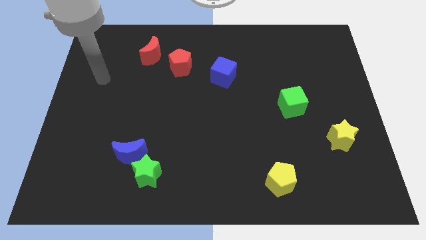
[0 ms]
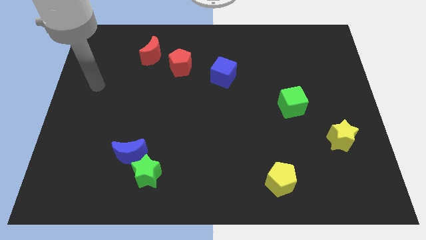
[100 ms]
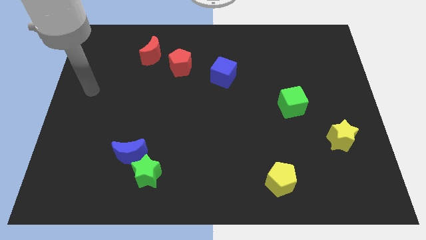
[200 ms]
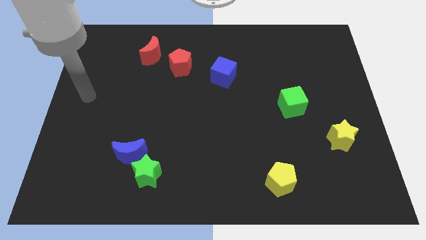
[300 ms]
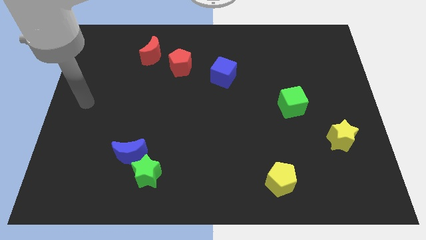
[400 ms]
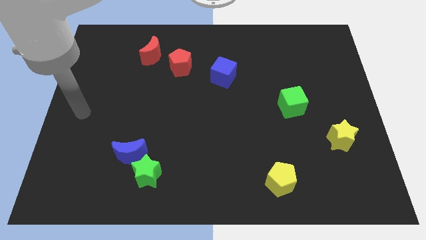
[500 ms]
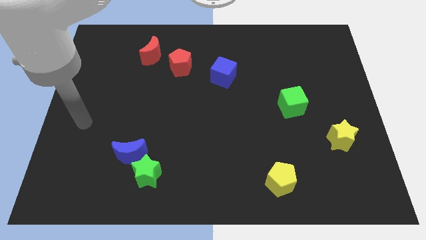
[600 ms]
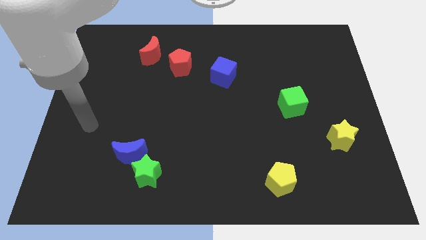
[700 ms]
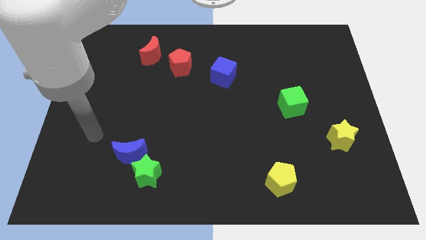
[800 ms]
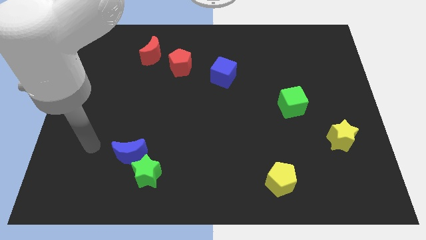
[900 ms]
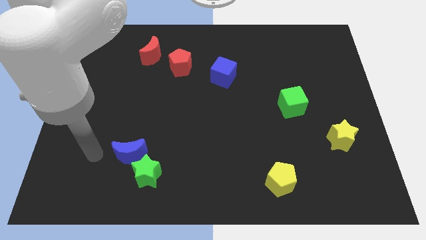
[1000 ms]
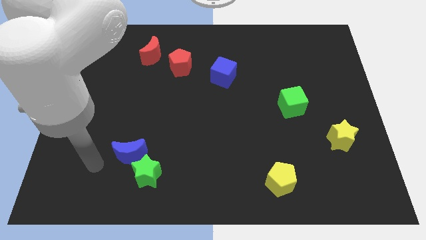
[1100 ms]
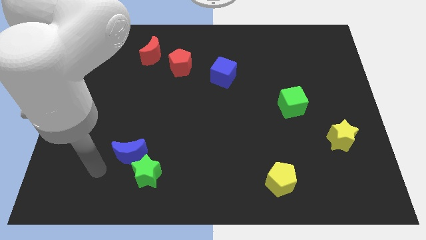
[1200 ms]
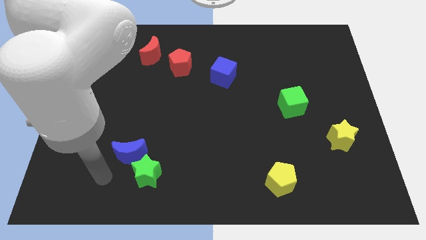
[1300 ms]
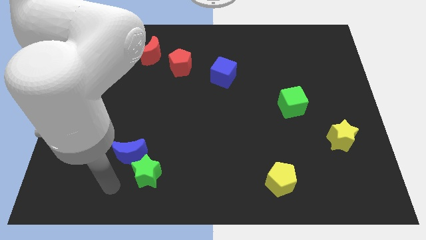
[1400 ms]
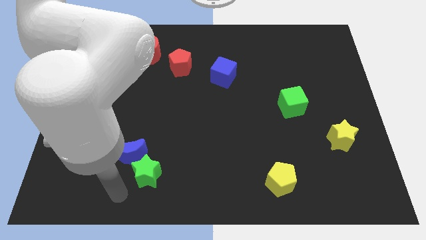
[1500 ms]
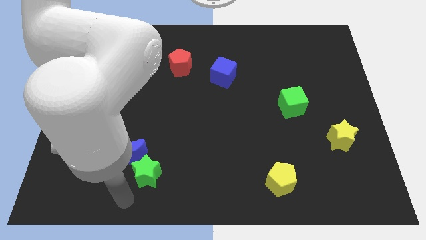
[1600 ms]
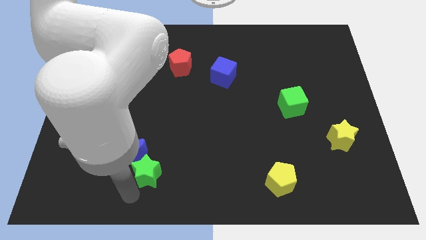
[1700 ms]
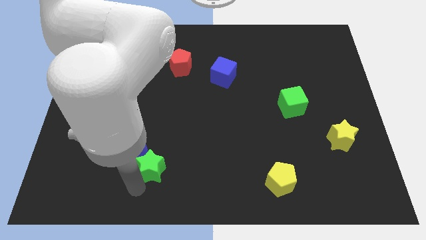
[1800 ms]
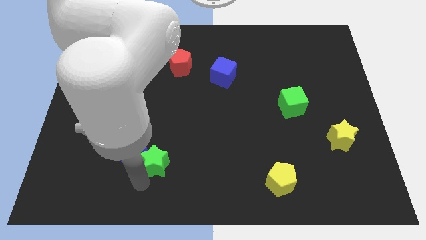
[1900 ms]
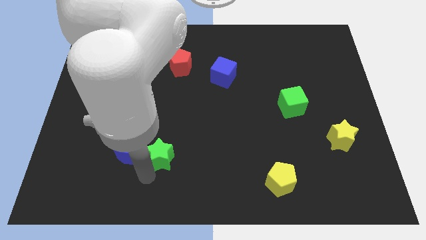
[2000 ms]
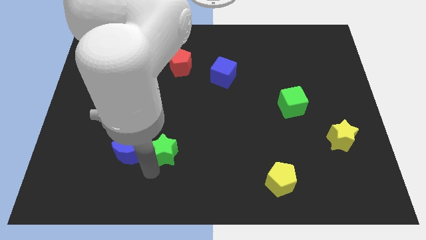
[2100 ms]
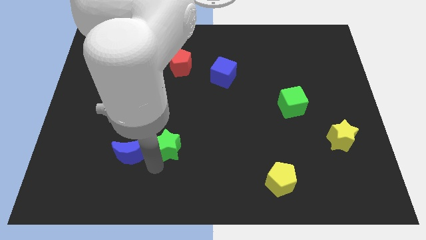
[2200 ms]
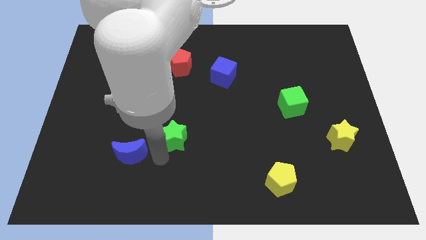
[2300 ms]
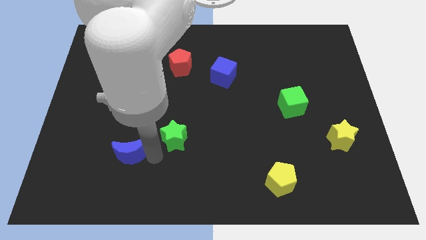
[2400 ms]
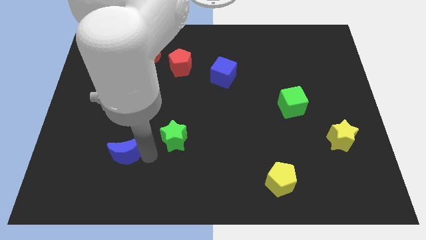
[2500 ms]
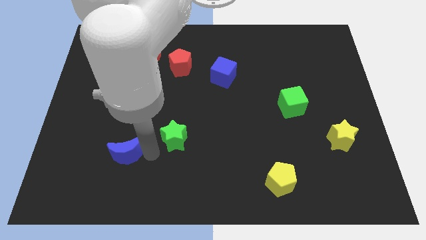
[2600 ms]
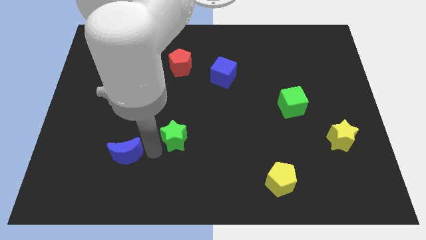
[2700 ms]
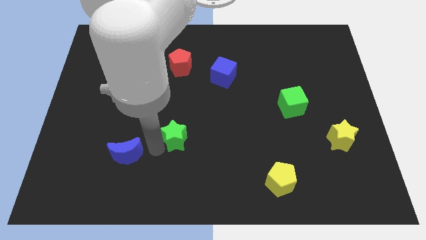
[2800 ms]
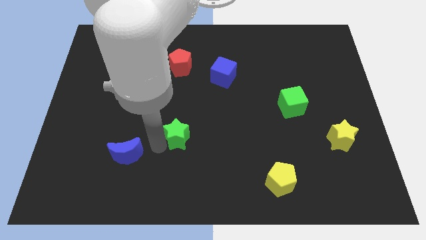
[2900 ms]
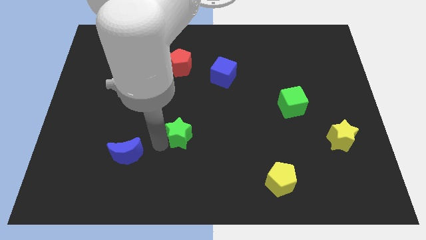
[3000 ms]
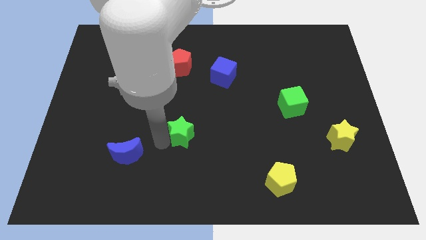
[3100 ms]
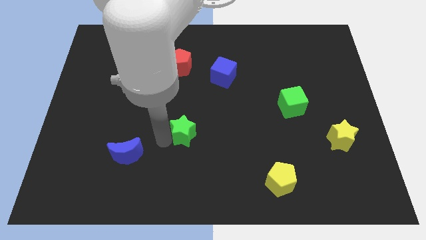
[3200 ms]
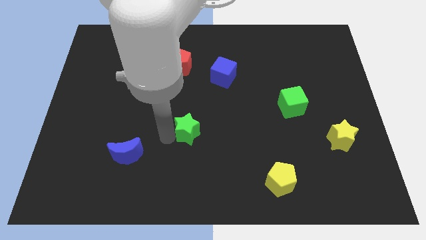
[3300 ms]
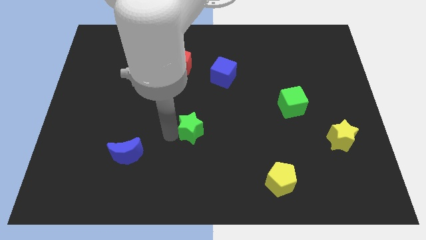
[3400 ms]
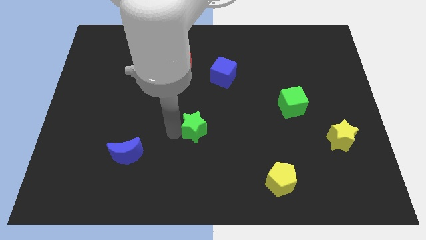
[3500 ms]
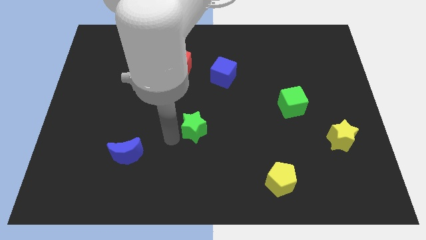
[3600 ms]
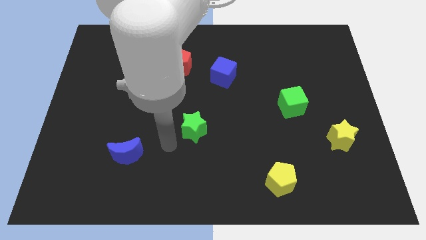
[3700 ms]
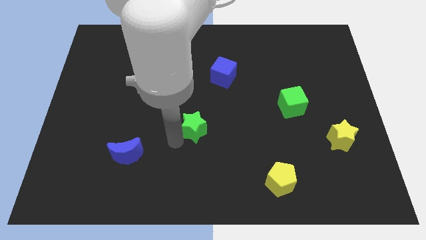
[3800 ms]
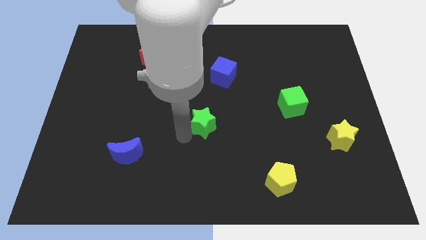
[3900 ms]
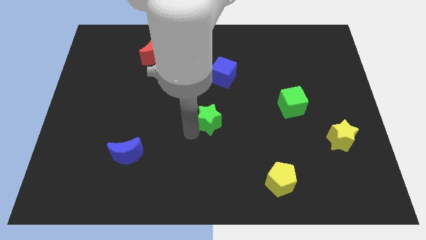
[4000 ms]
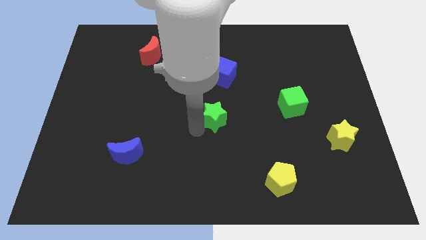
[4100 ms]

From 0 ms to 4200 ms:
slide the green star up and right diagonally

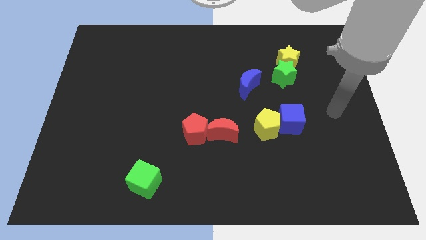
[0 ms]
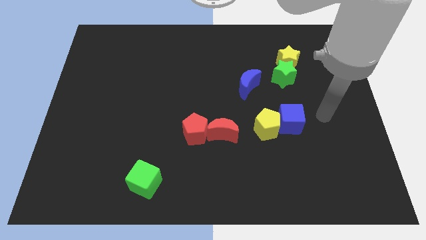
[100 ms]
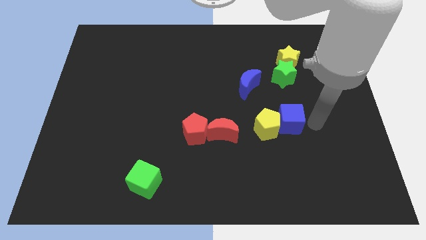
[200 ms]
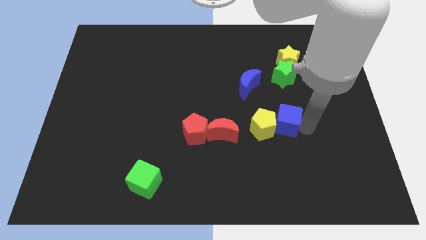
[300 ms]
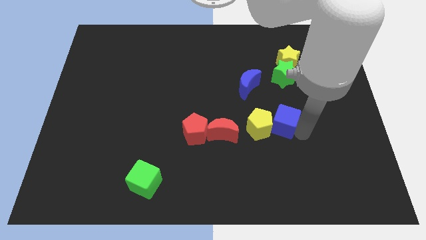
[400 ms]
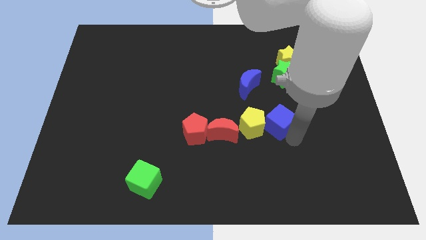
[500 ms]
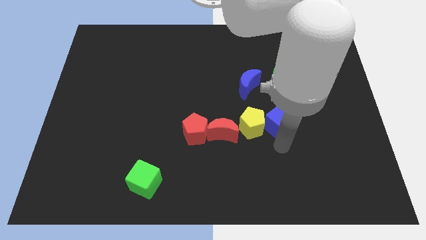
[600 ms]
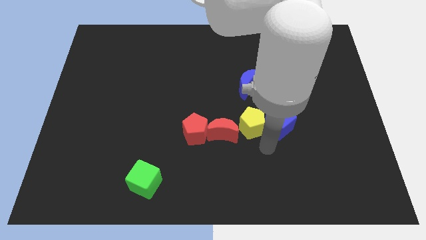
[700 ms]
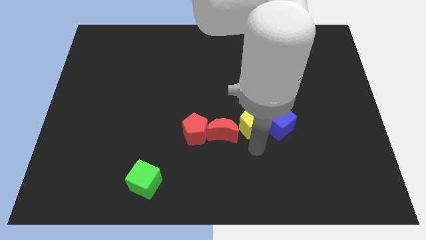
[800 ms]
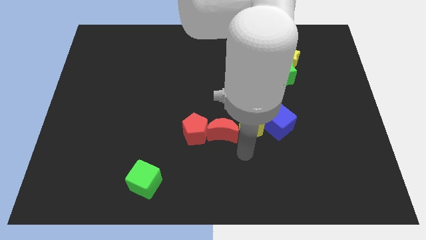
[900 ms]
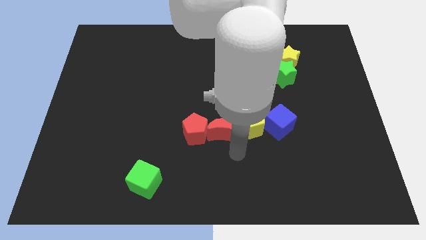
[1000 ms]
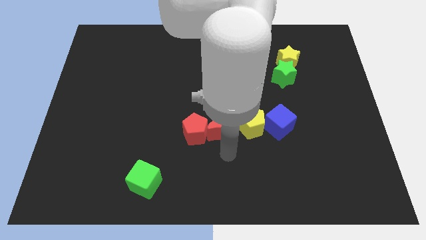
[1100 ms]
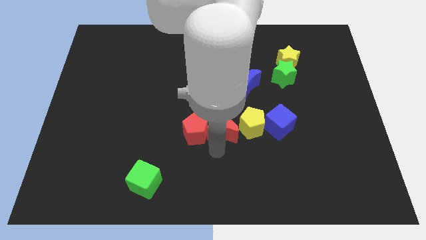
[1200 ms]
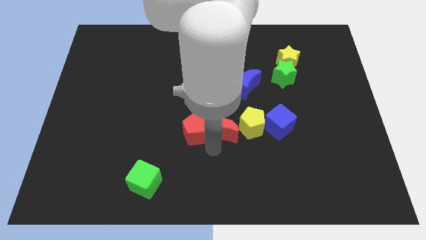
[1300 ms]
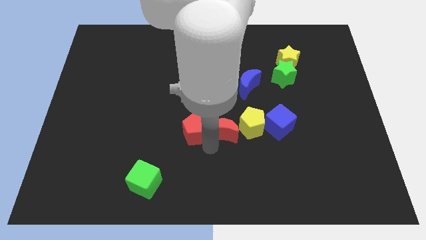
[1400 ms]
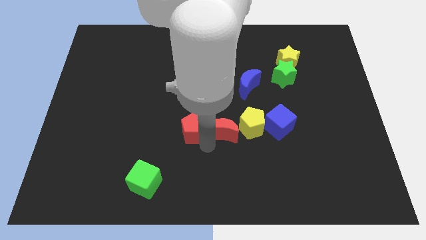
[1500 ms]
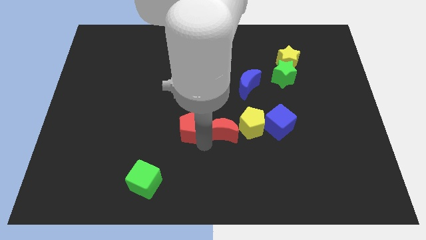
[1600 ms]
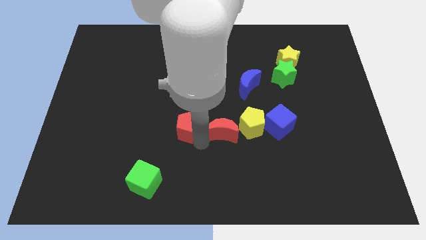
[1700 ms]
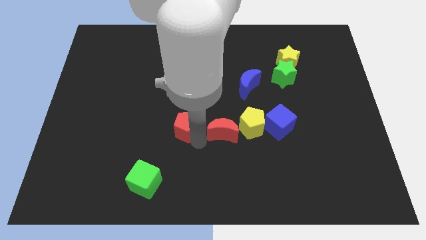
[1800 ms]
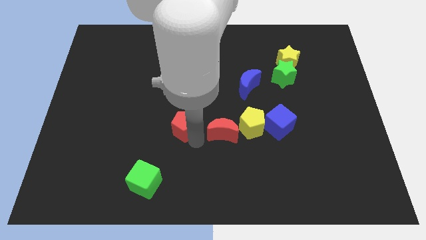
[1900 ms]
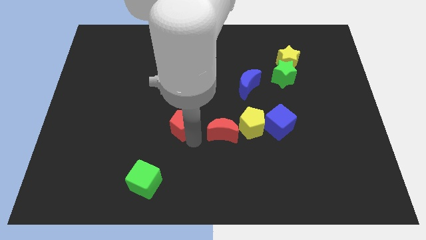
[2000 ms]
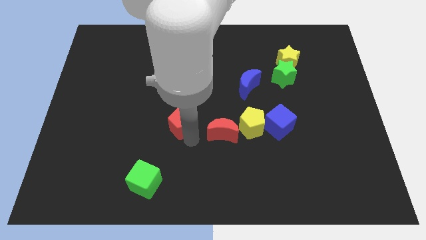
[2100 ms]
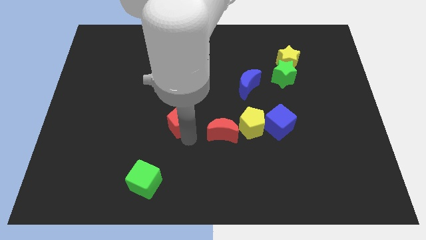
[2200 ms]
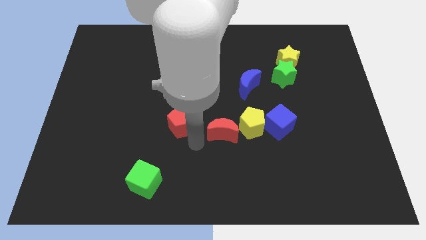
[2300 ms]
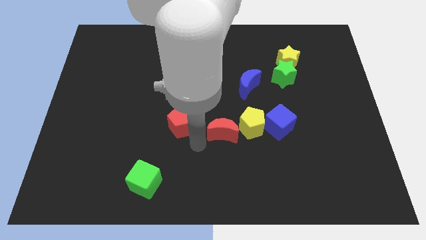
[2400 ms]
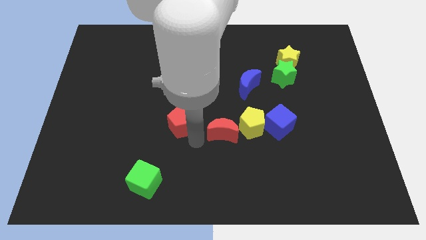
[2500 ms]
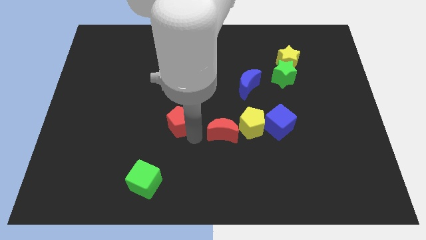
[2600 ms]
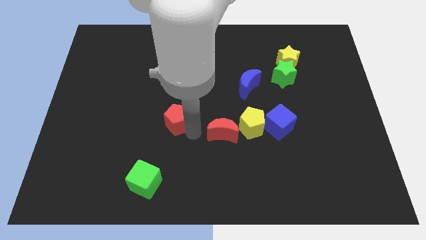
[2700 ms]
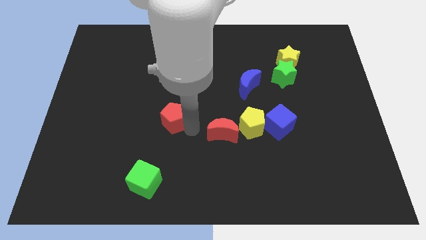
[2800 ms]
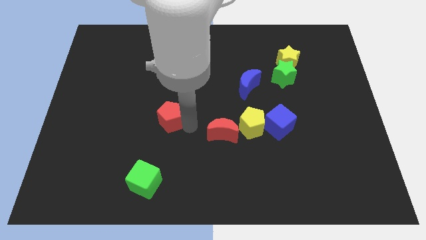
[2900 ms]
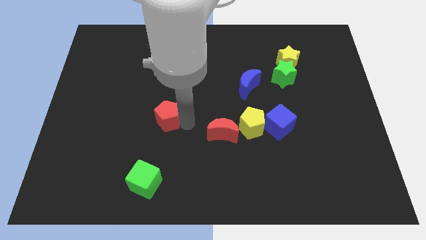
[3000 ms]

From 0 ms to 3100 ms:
slide the red pentagon slightly up and to the left

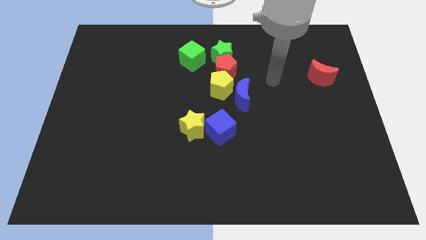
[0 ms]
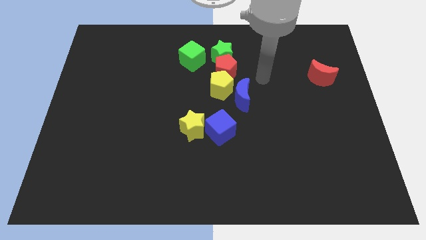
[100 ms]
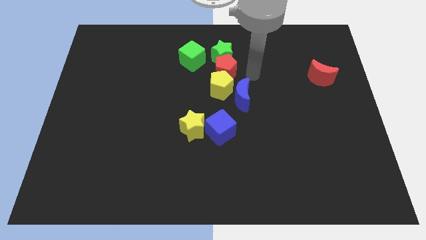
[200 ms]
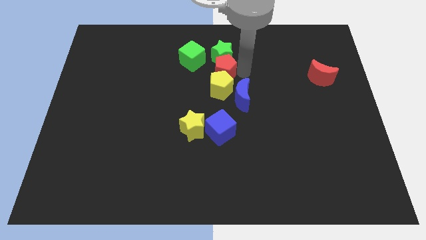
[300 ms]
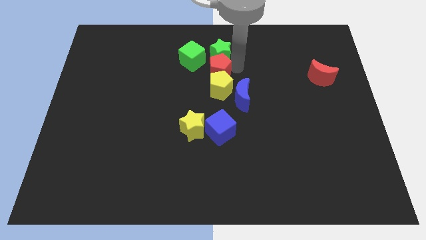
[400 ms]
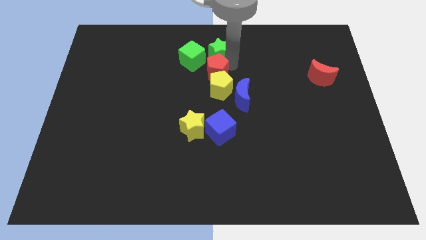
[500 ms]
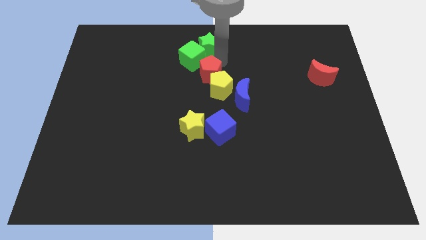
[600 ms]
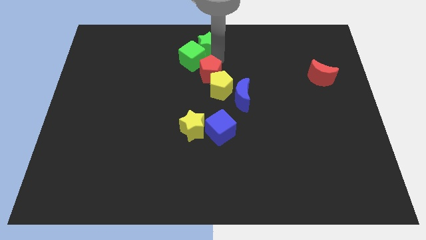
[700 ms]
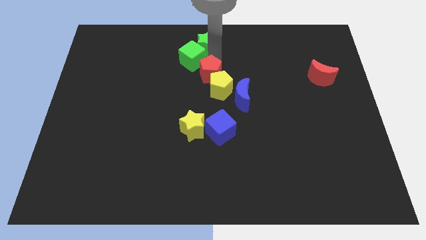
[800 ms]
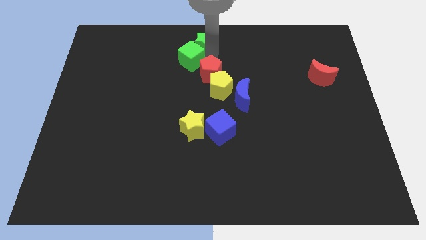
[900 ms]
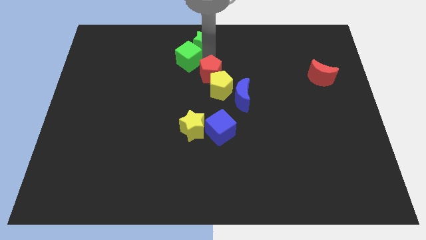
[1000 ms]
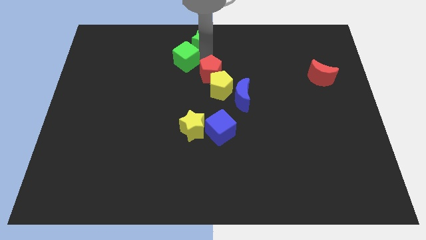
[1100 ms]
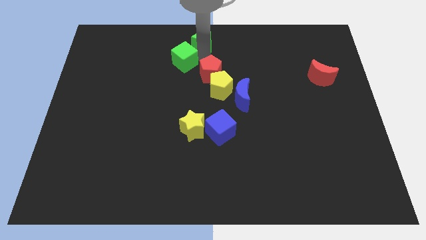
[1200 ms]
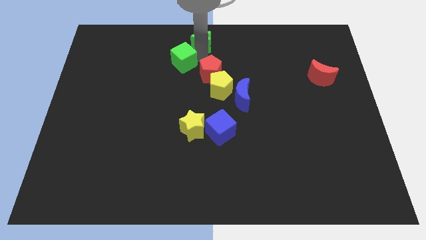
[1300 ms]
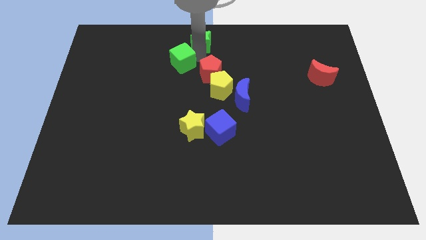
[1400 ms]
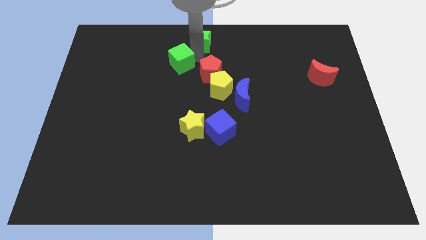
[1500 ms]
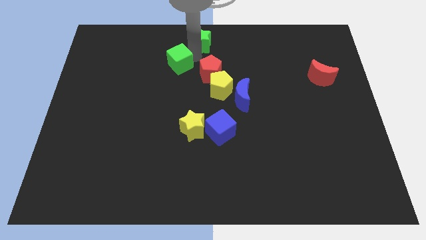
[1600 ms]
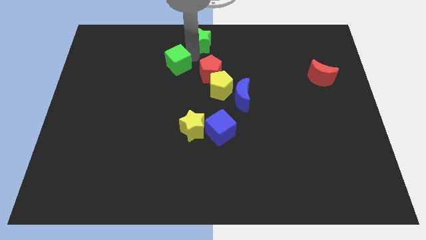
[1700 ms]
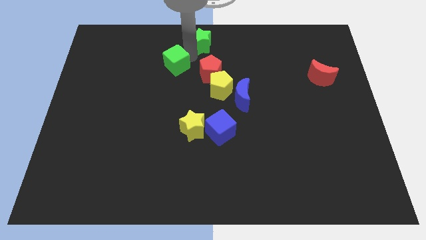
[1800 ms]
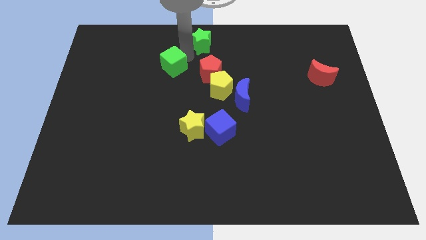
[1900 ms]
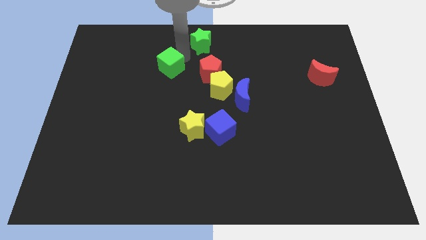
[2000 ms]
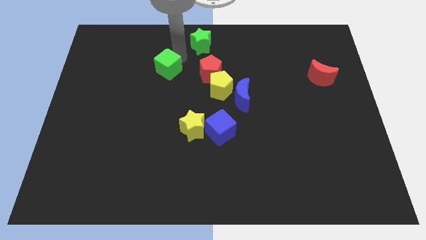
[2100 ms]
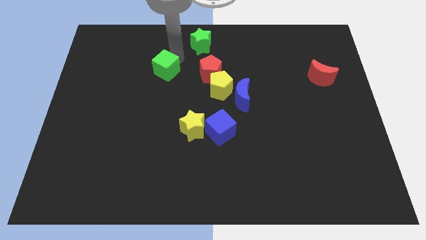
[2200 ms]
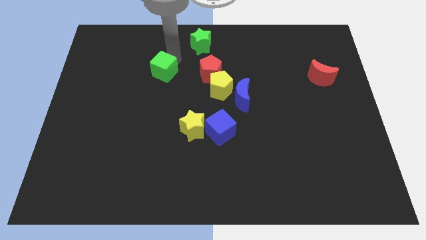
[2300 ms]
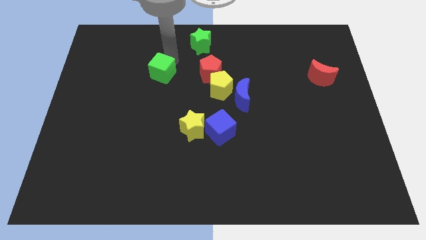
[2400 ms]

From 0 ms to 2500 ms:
push the green cube to the left a little
